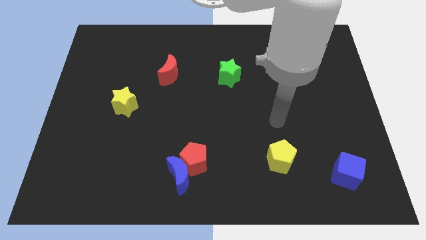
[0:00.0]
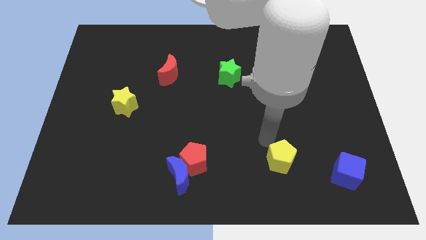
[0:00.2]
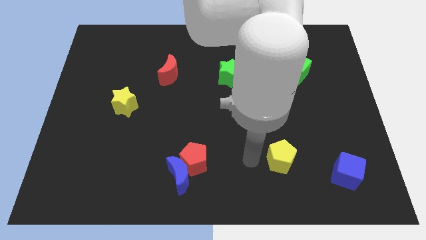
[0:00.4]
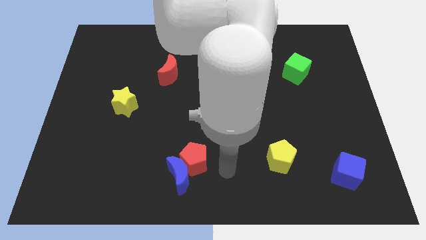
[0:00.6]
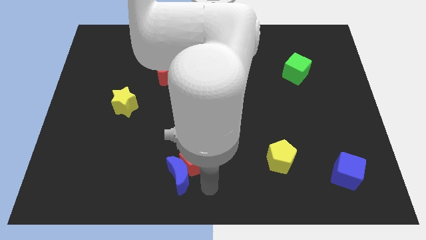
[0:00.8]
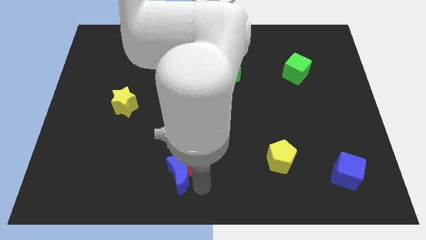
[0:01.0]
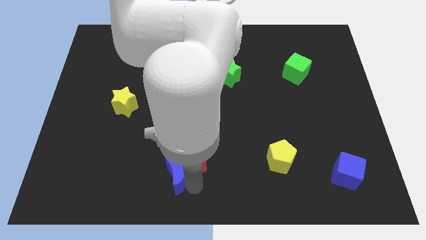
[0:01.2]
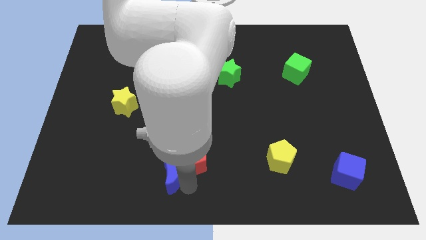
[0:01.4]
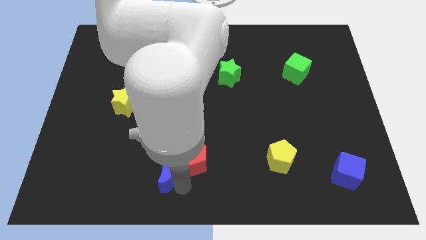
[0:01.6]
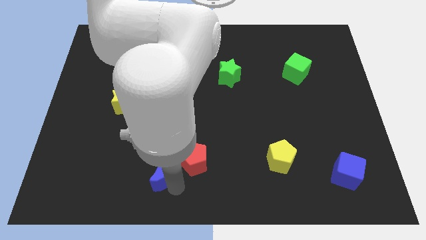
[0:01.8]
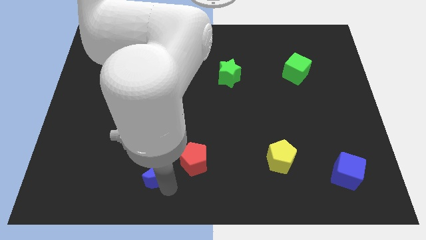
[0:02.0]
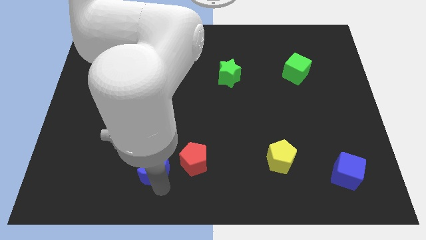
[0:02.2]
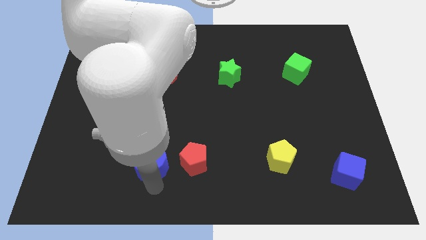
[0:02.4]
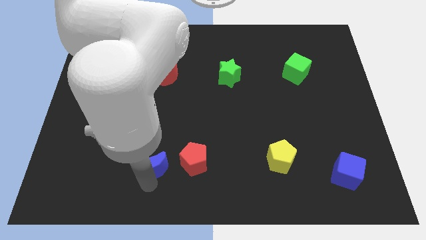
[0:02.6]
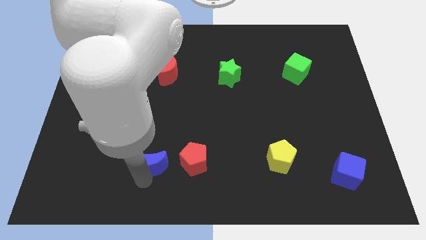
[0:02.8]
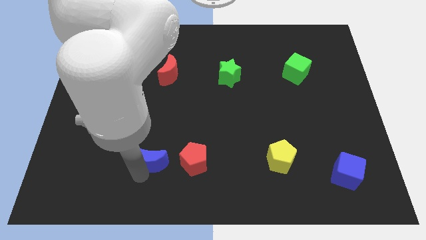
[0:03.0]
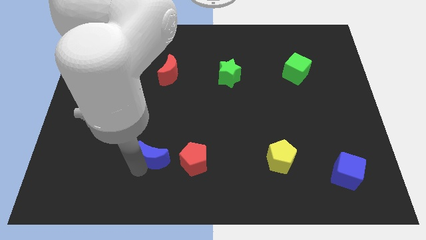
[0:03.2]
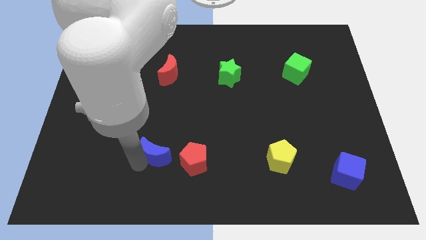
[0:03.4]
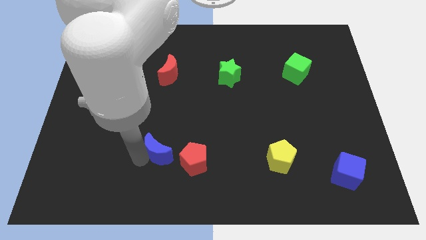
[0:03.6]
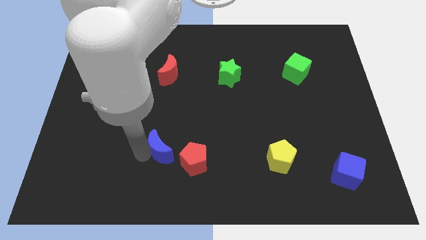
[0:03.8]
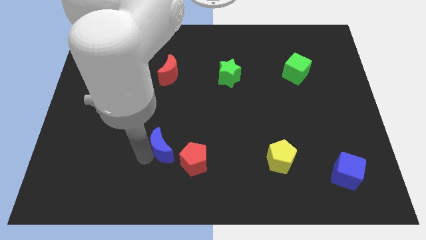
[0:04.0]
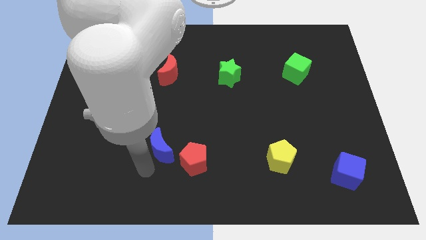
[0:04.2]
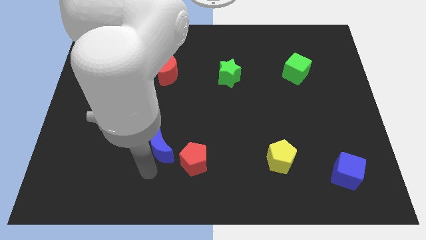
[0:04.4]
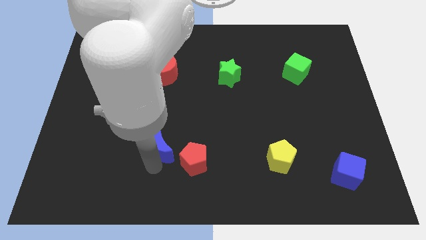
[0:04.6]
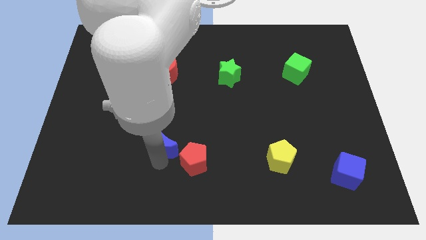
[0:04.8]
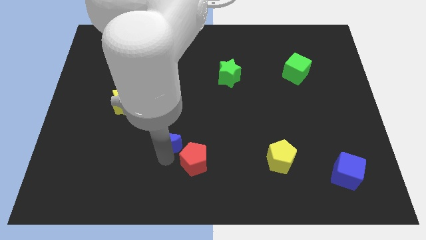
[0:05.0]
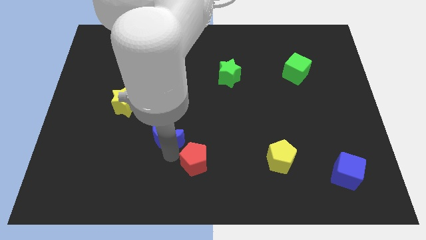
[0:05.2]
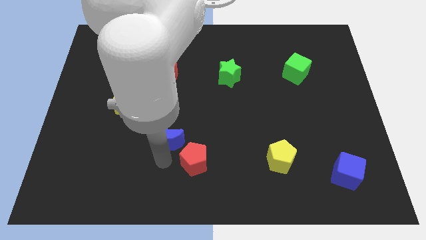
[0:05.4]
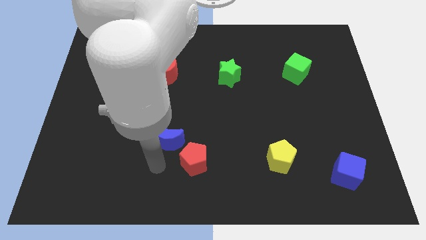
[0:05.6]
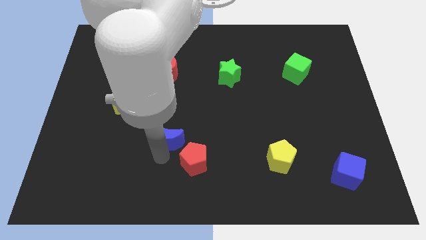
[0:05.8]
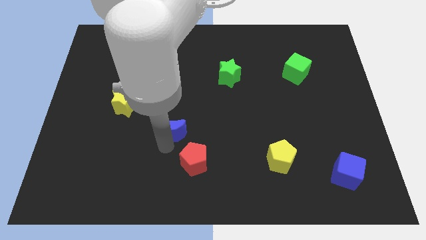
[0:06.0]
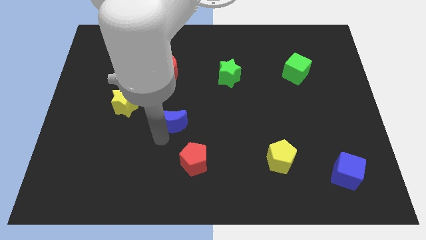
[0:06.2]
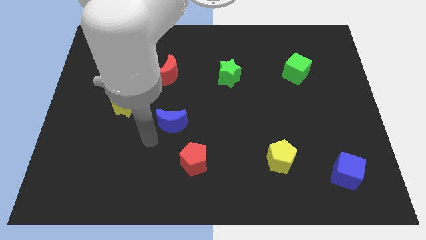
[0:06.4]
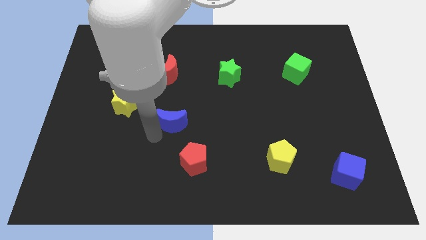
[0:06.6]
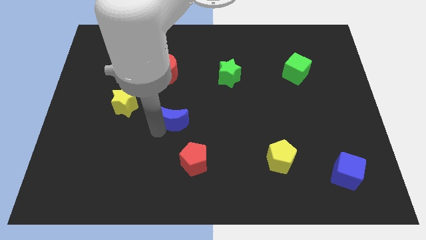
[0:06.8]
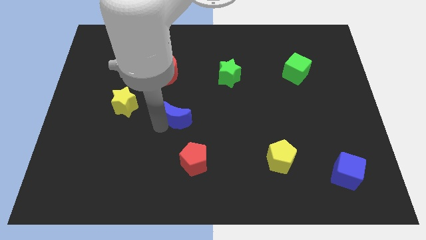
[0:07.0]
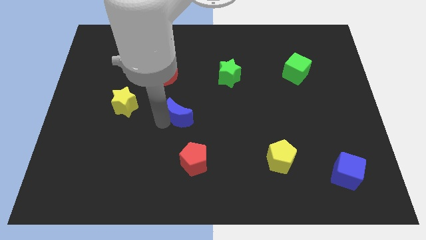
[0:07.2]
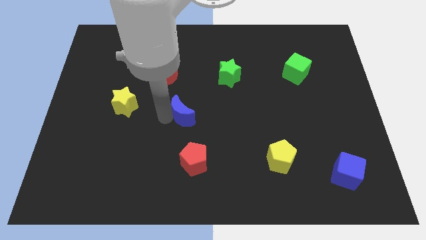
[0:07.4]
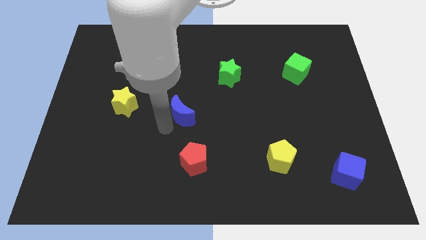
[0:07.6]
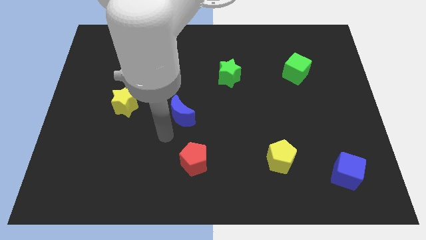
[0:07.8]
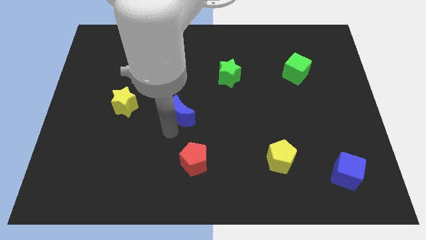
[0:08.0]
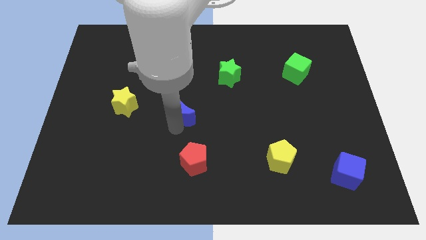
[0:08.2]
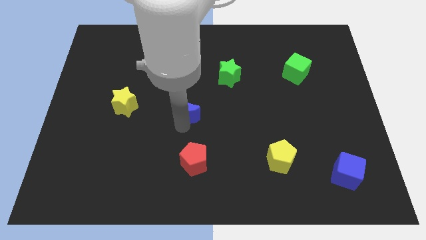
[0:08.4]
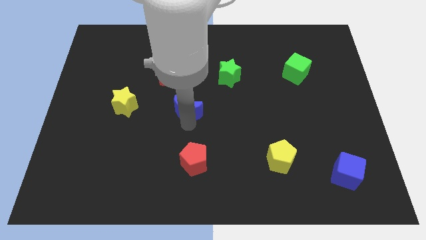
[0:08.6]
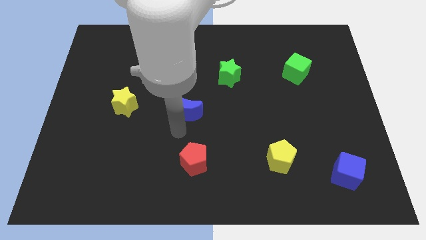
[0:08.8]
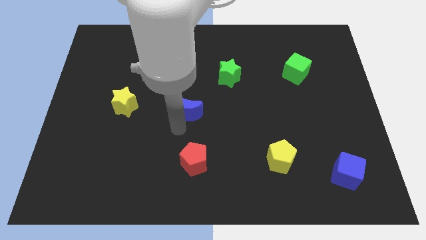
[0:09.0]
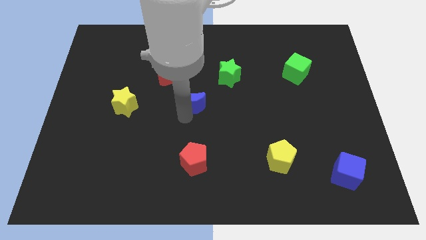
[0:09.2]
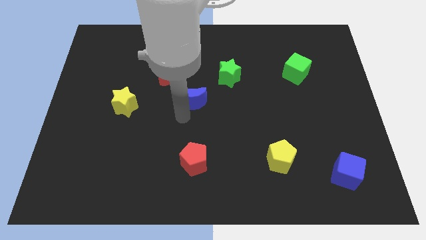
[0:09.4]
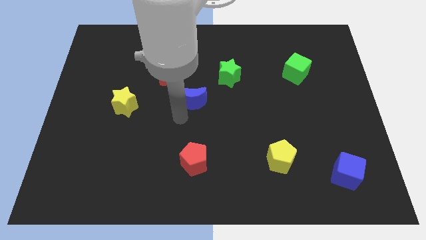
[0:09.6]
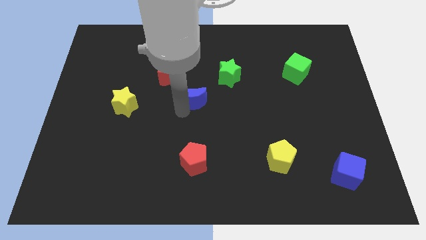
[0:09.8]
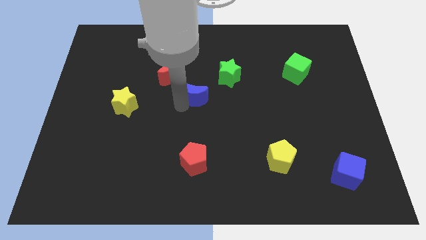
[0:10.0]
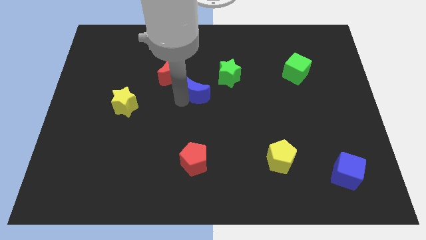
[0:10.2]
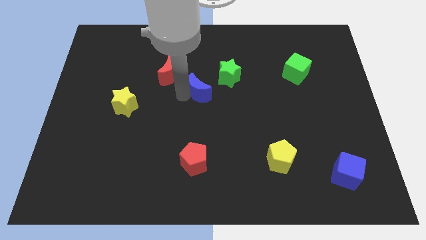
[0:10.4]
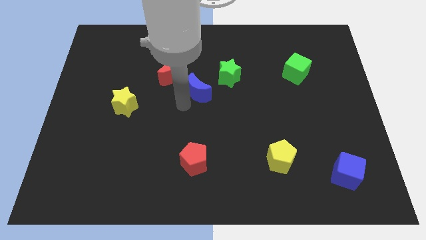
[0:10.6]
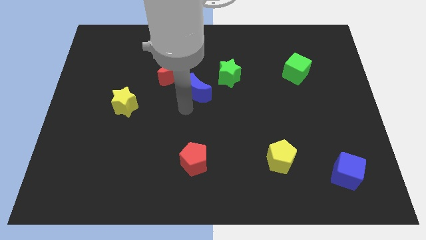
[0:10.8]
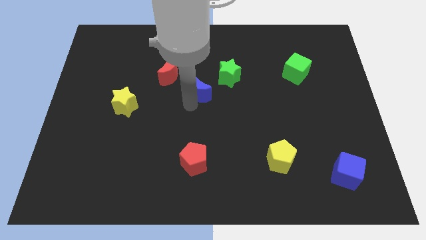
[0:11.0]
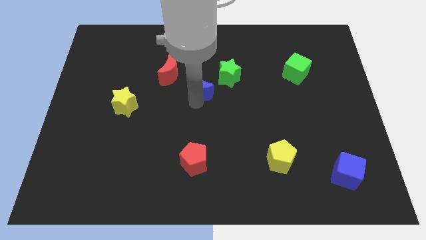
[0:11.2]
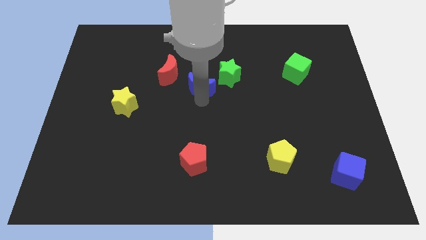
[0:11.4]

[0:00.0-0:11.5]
slide the blue moon right of the red moon

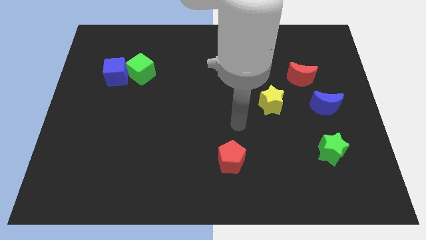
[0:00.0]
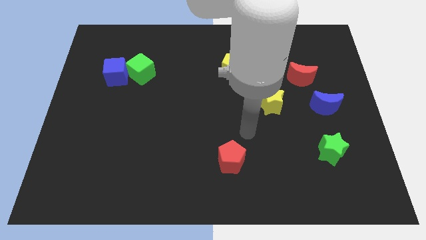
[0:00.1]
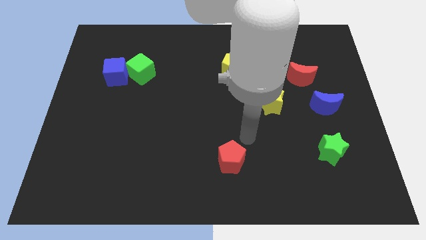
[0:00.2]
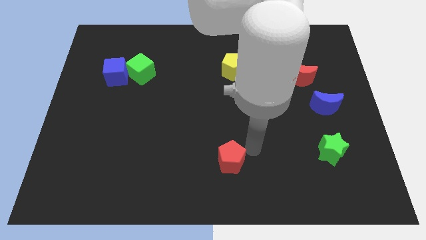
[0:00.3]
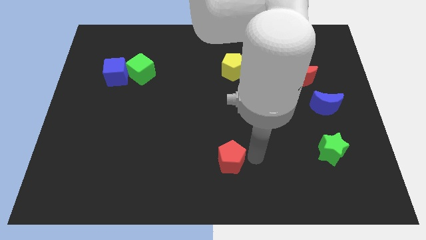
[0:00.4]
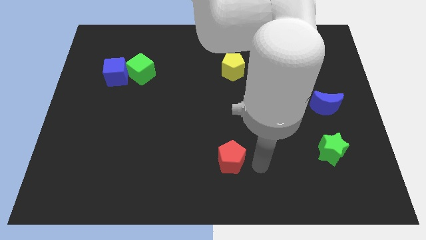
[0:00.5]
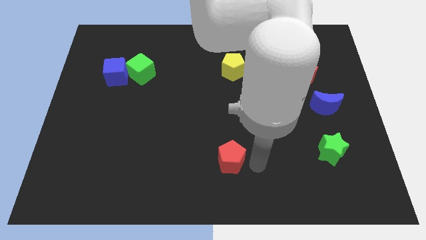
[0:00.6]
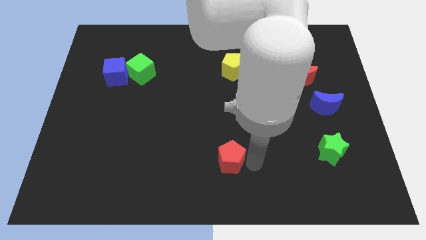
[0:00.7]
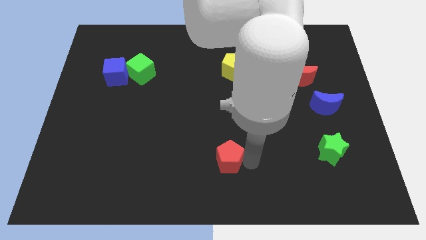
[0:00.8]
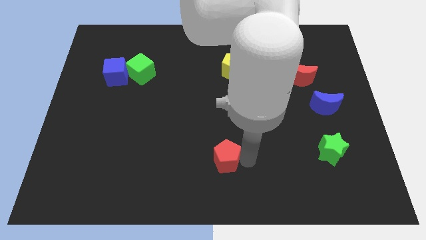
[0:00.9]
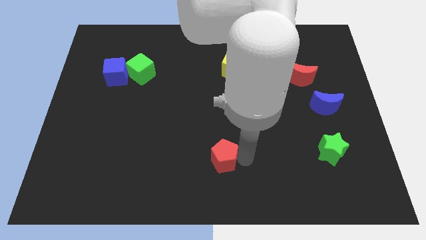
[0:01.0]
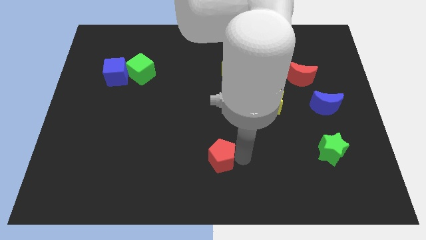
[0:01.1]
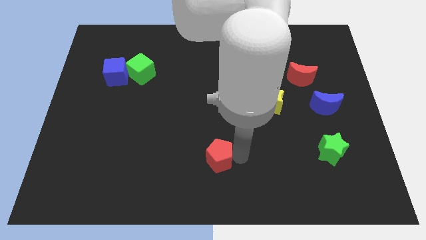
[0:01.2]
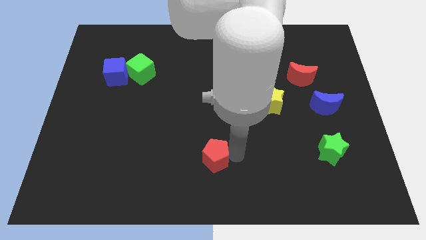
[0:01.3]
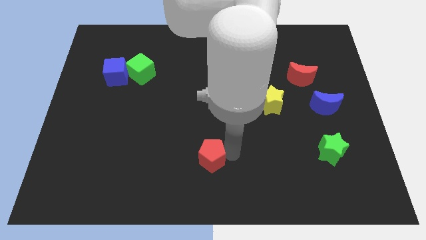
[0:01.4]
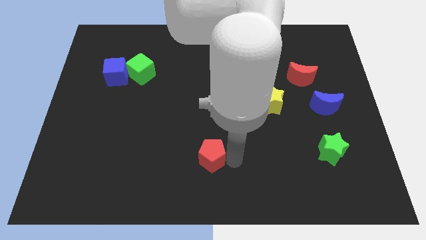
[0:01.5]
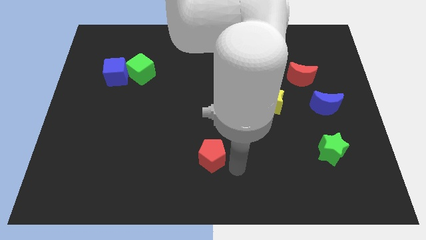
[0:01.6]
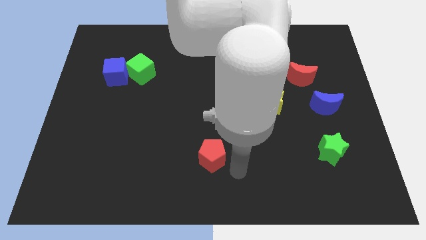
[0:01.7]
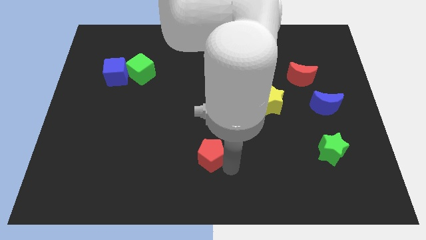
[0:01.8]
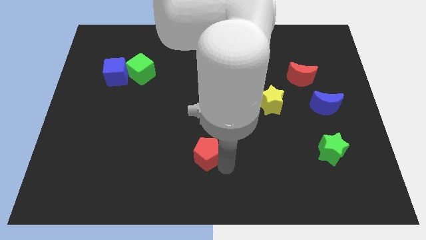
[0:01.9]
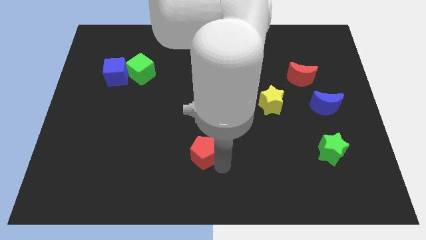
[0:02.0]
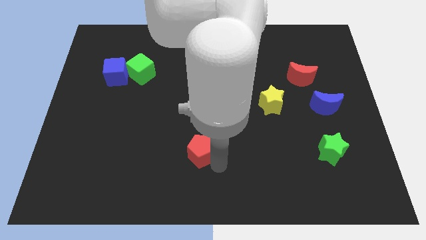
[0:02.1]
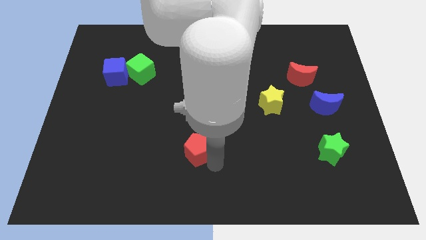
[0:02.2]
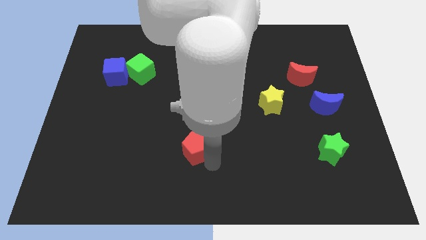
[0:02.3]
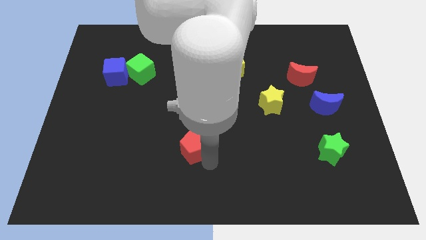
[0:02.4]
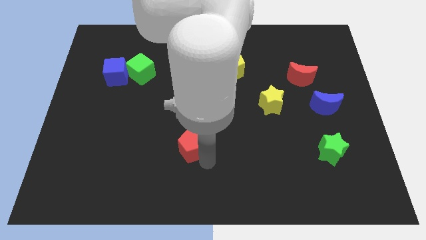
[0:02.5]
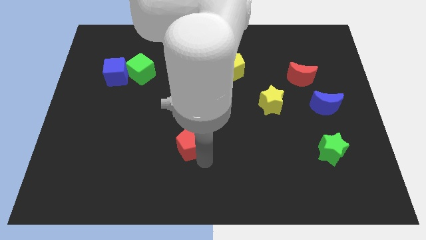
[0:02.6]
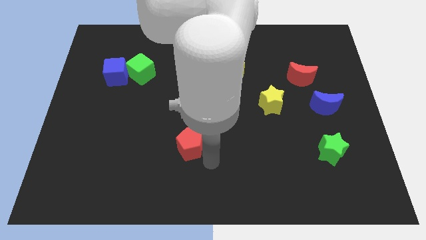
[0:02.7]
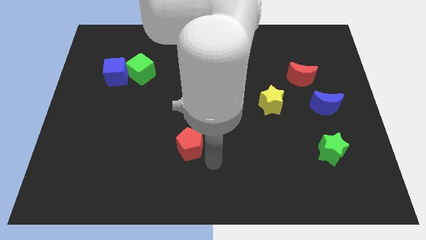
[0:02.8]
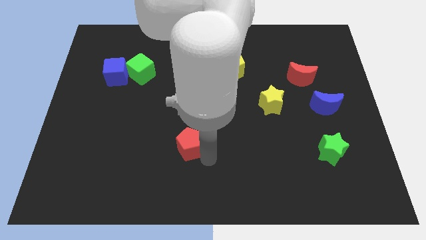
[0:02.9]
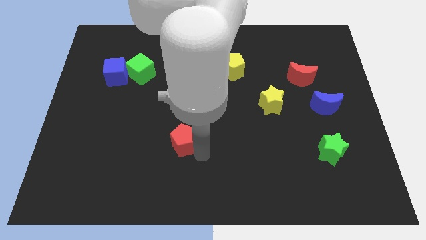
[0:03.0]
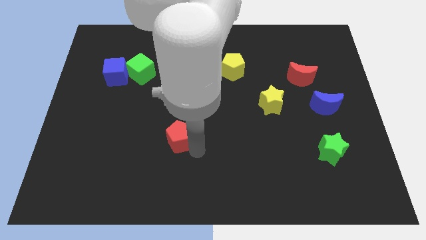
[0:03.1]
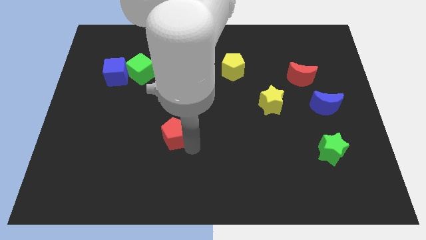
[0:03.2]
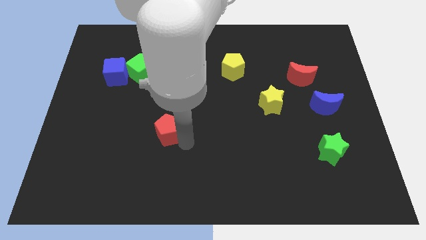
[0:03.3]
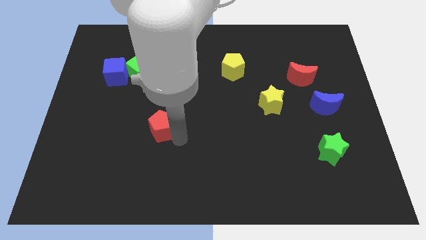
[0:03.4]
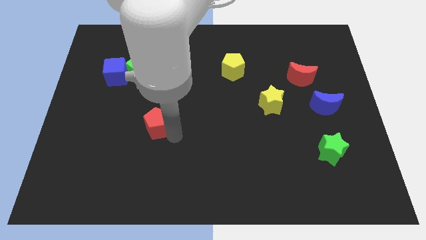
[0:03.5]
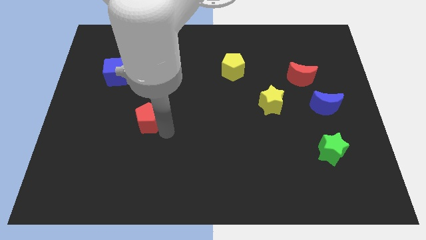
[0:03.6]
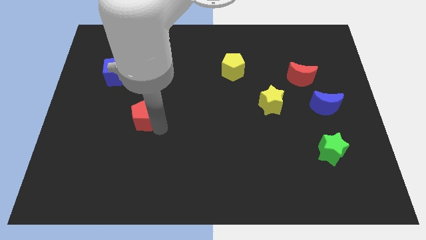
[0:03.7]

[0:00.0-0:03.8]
move the red pentagon to the bottom of the green cube
